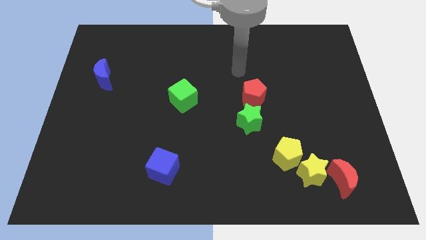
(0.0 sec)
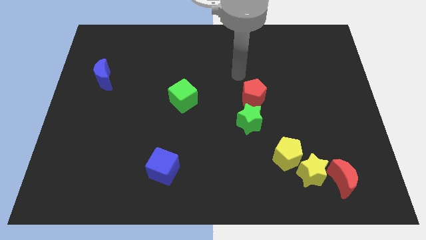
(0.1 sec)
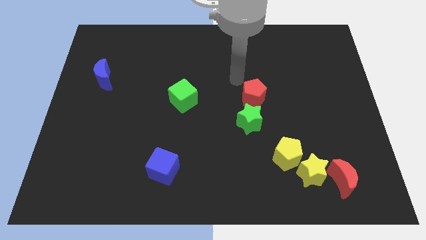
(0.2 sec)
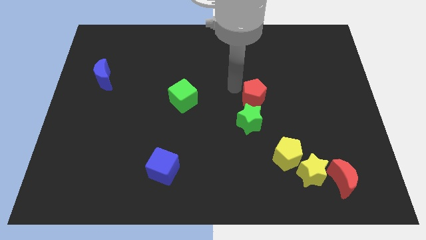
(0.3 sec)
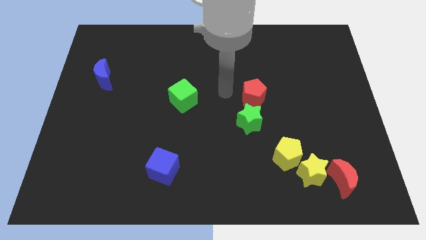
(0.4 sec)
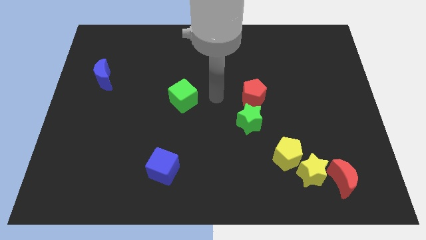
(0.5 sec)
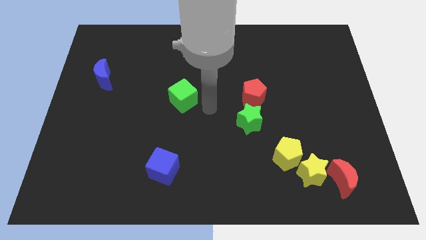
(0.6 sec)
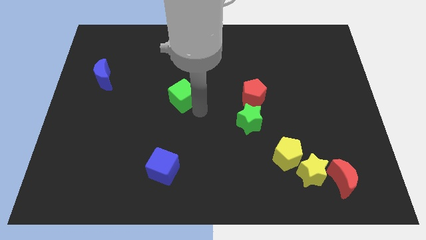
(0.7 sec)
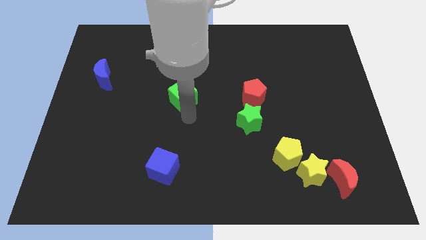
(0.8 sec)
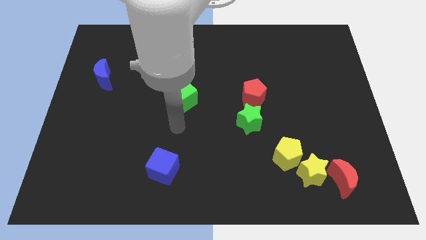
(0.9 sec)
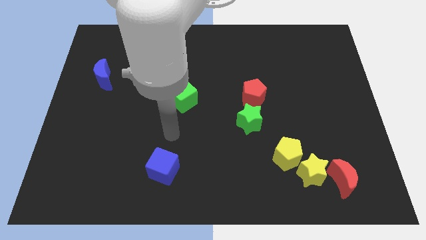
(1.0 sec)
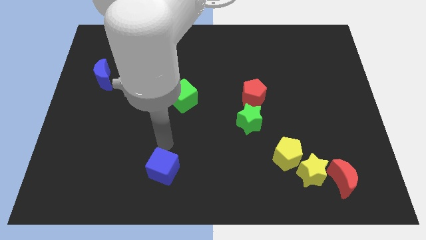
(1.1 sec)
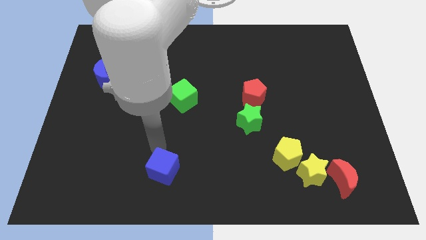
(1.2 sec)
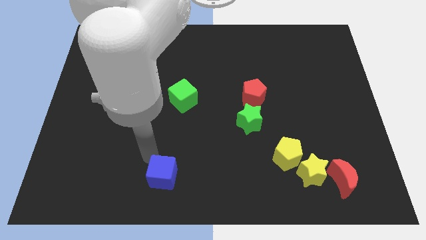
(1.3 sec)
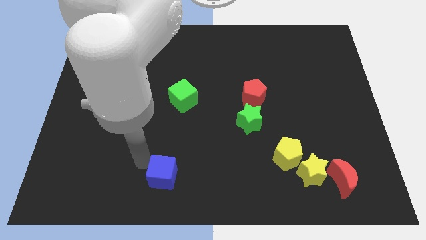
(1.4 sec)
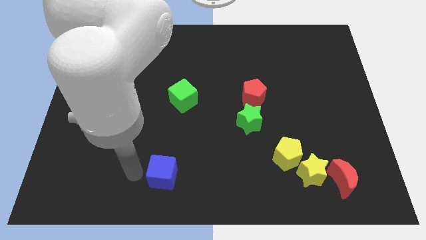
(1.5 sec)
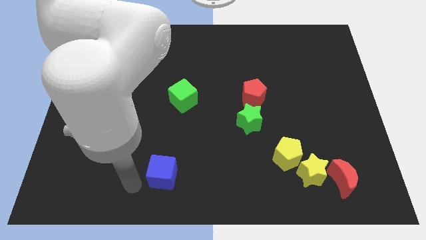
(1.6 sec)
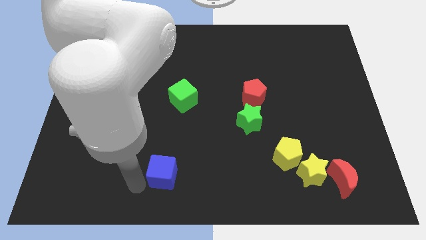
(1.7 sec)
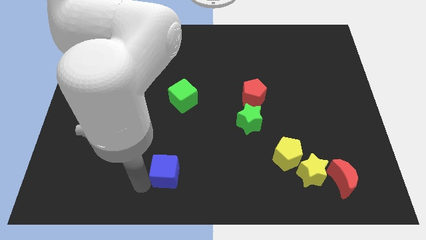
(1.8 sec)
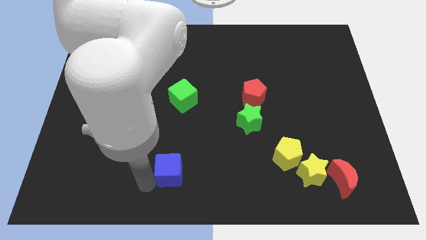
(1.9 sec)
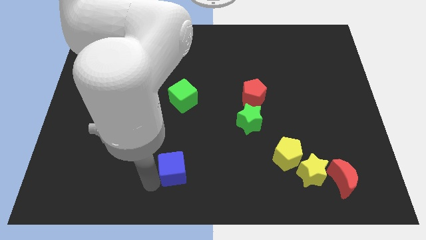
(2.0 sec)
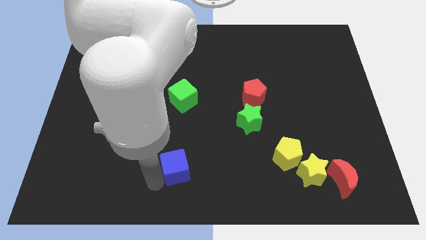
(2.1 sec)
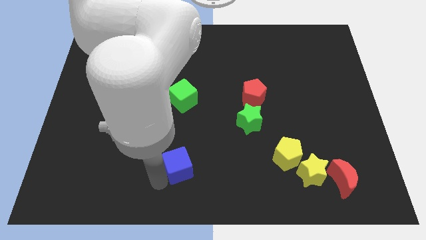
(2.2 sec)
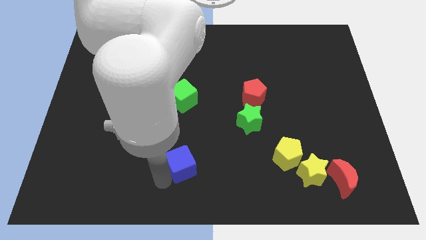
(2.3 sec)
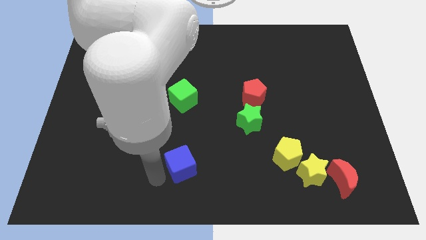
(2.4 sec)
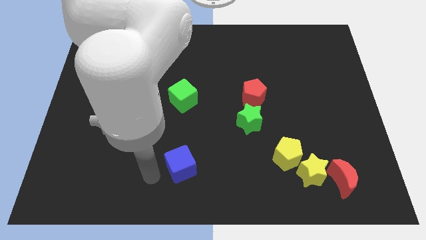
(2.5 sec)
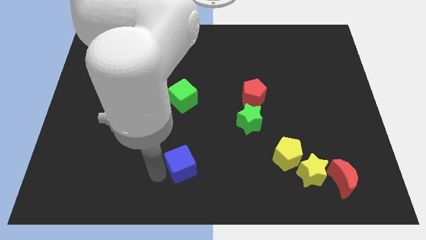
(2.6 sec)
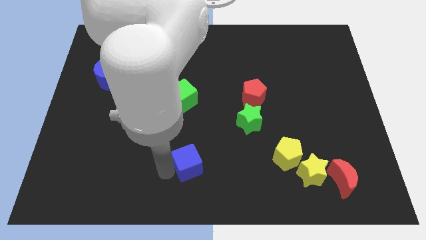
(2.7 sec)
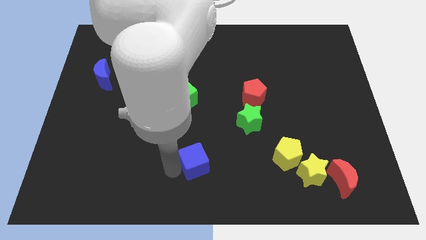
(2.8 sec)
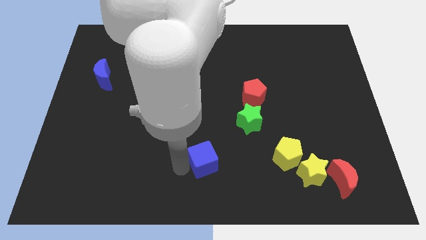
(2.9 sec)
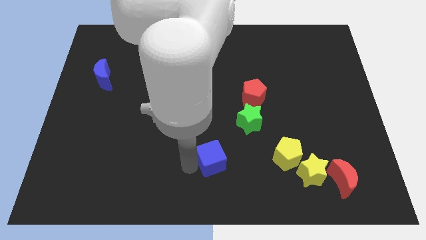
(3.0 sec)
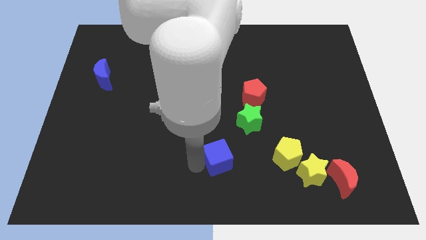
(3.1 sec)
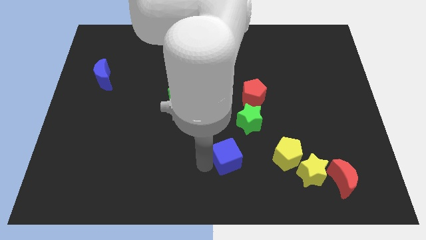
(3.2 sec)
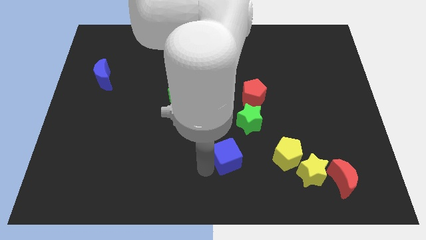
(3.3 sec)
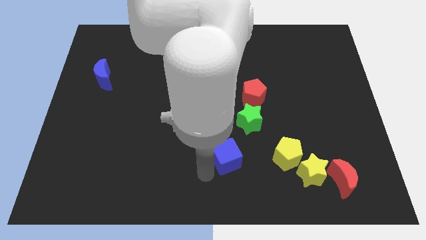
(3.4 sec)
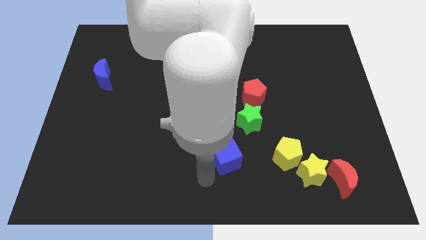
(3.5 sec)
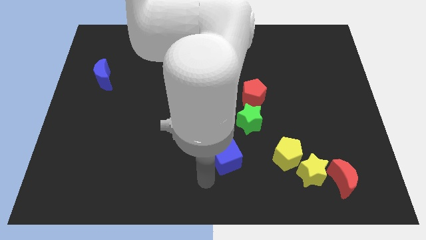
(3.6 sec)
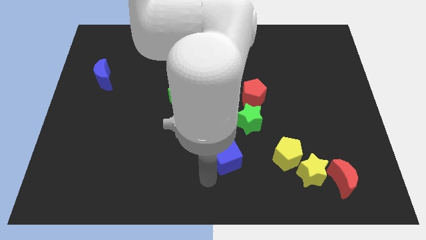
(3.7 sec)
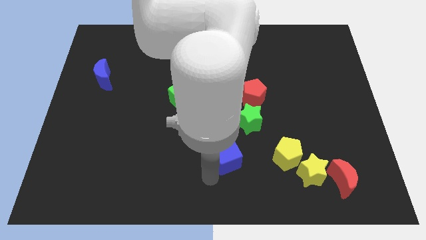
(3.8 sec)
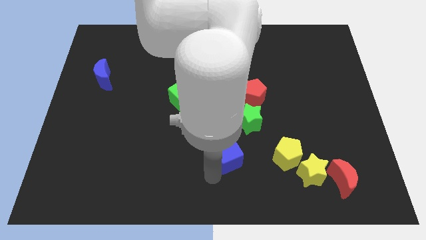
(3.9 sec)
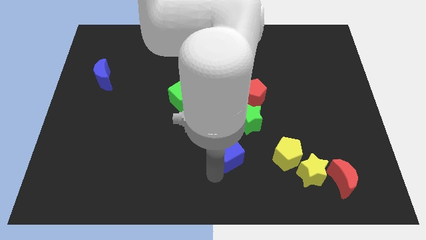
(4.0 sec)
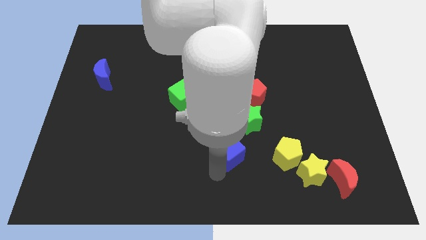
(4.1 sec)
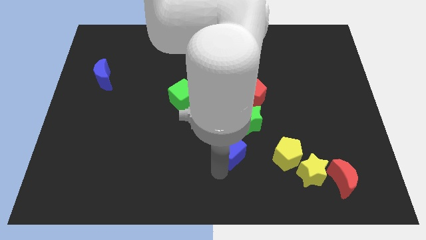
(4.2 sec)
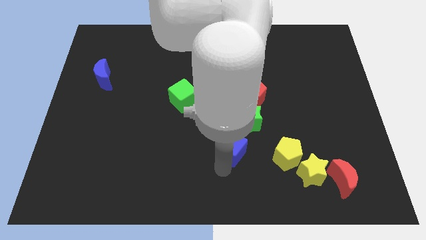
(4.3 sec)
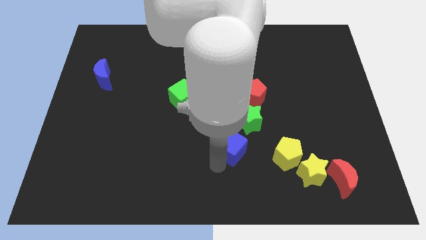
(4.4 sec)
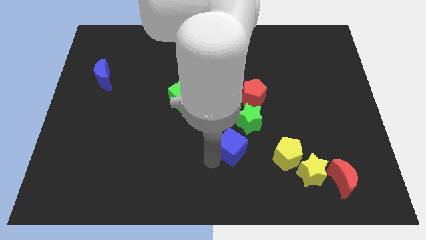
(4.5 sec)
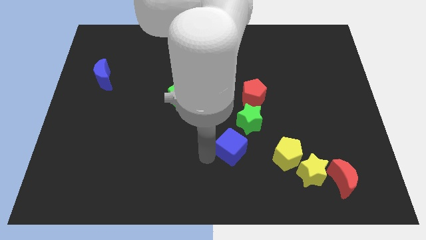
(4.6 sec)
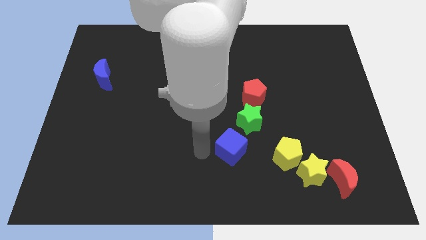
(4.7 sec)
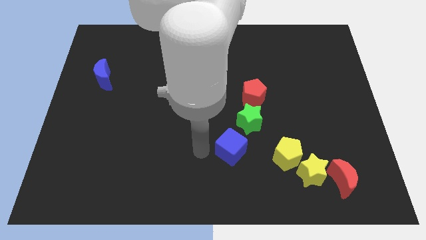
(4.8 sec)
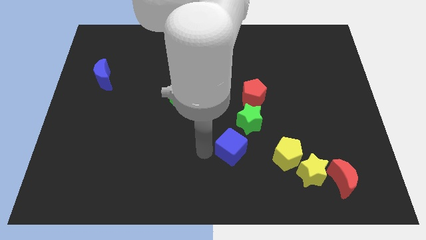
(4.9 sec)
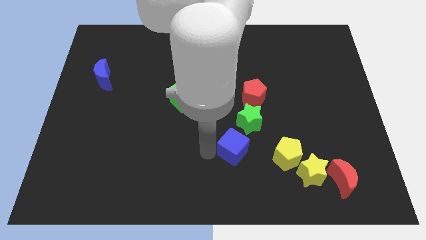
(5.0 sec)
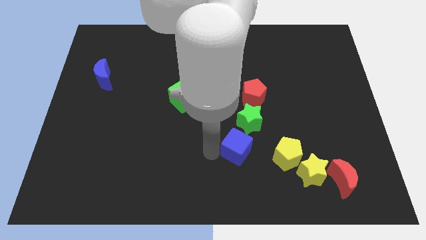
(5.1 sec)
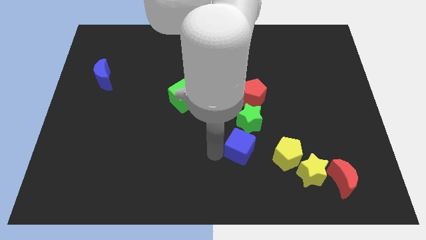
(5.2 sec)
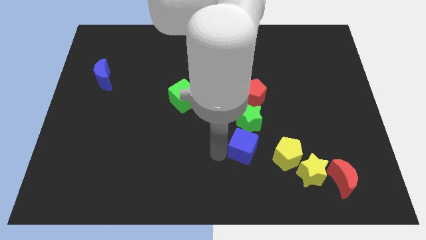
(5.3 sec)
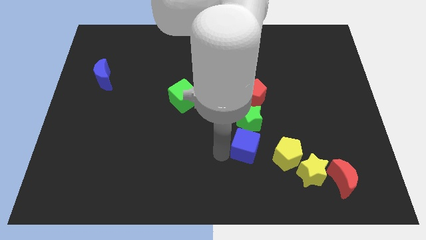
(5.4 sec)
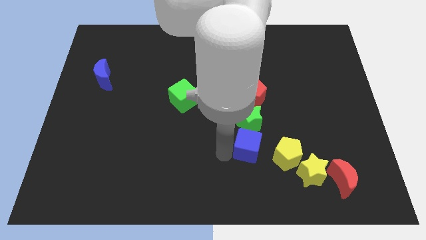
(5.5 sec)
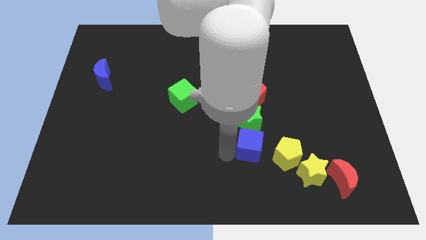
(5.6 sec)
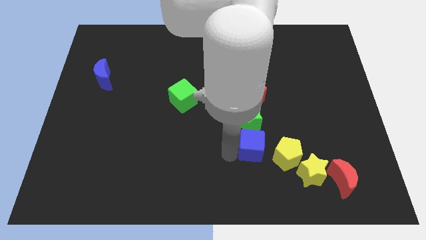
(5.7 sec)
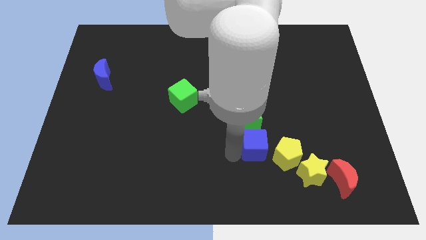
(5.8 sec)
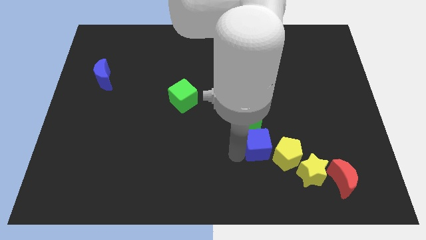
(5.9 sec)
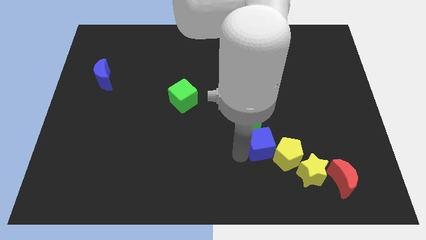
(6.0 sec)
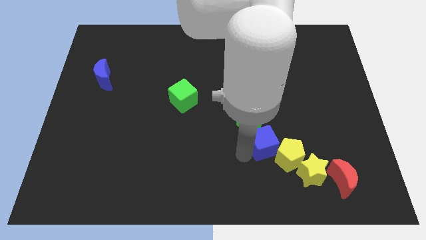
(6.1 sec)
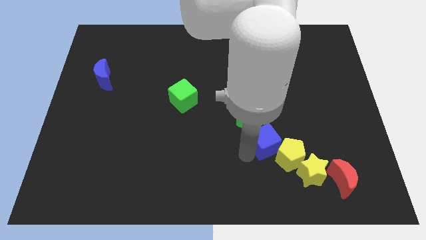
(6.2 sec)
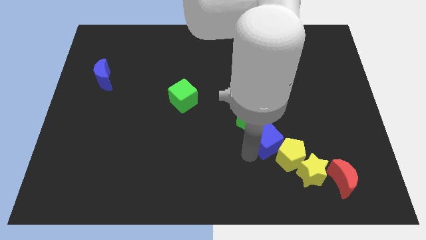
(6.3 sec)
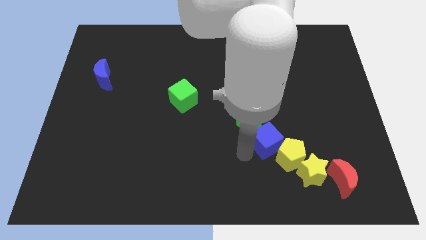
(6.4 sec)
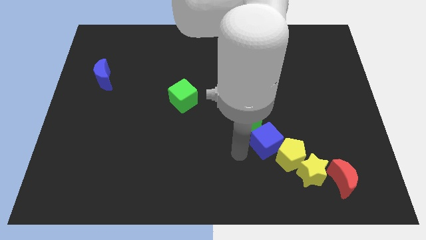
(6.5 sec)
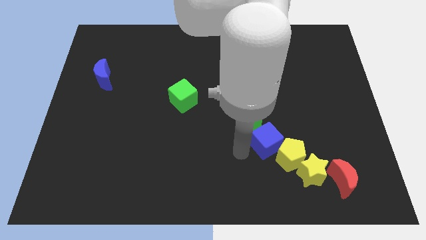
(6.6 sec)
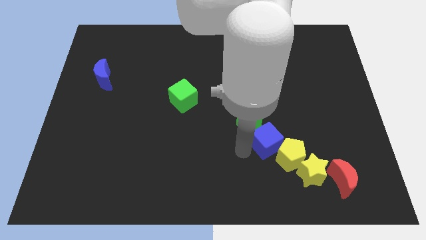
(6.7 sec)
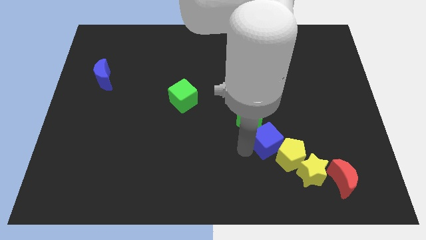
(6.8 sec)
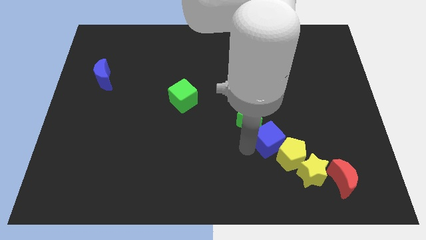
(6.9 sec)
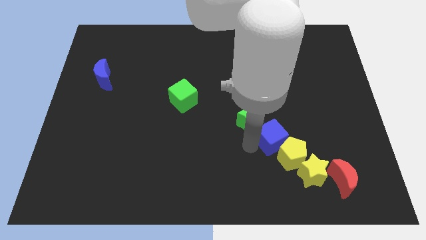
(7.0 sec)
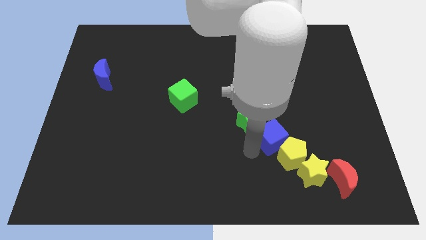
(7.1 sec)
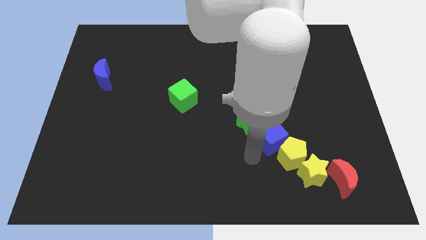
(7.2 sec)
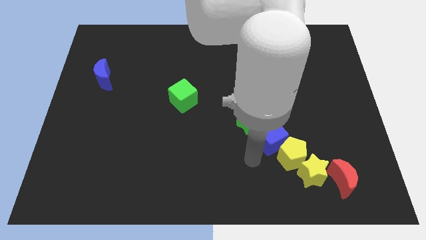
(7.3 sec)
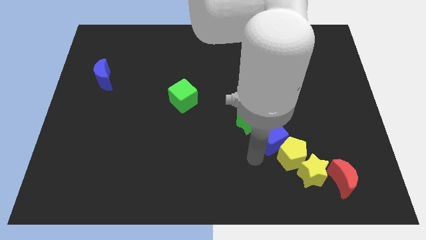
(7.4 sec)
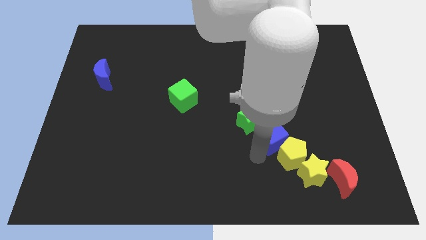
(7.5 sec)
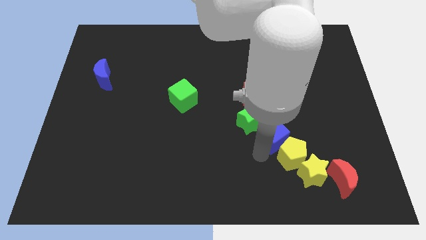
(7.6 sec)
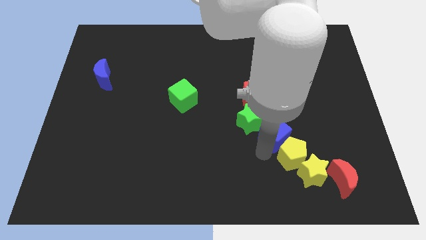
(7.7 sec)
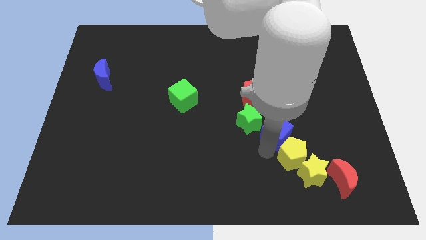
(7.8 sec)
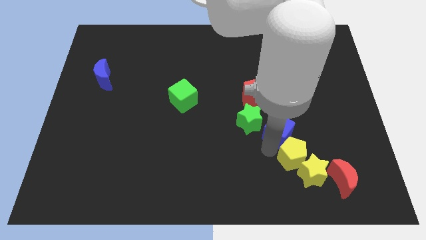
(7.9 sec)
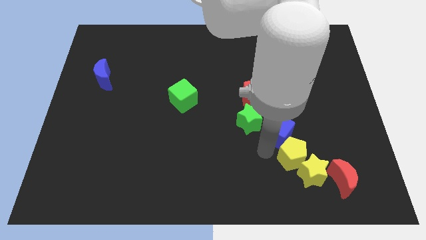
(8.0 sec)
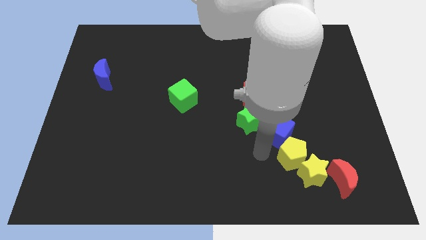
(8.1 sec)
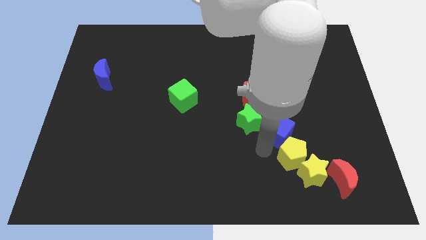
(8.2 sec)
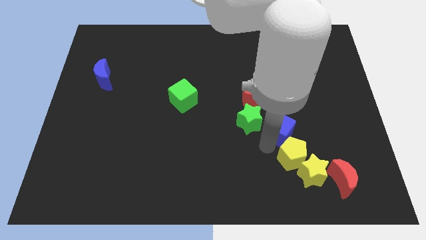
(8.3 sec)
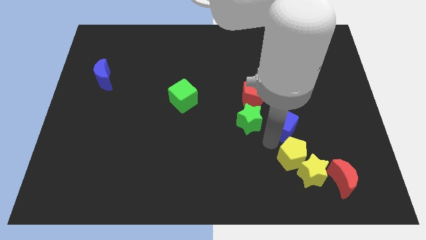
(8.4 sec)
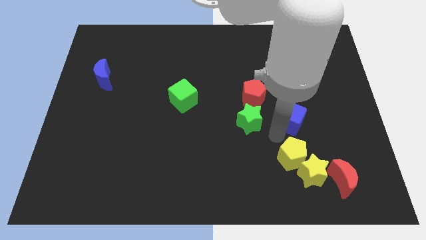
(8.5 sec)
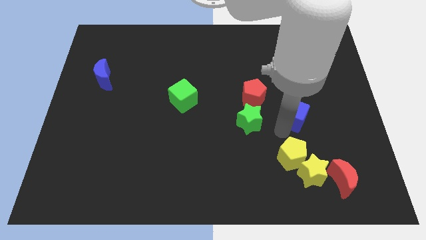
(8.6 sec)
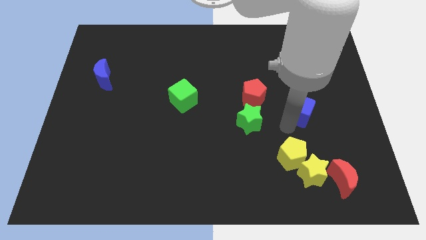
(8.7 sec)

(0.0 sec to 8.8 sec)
push the blue cube to the right of the red pentagon
